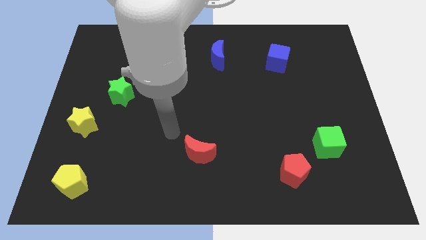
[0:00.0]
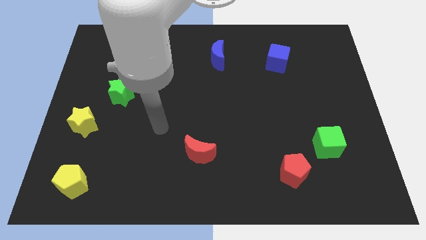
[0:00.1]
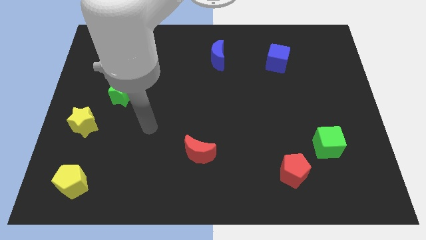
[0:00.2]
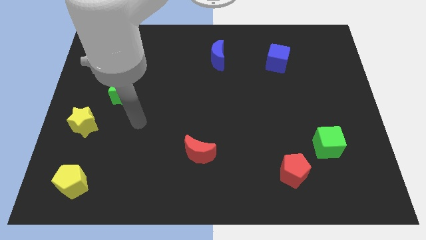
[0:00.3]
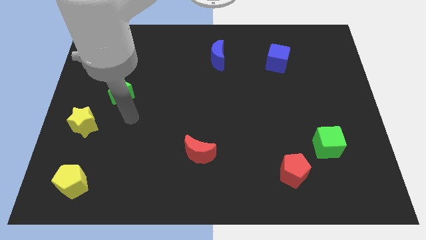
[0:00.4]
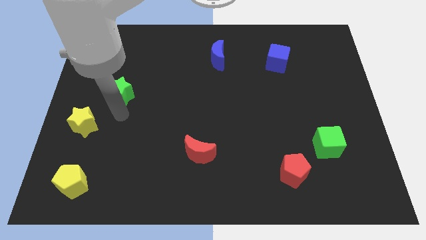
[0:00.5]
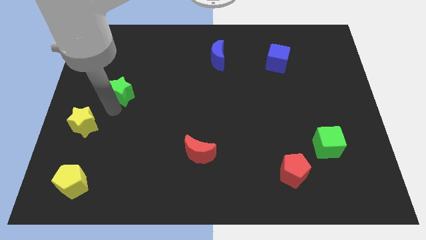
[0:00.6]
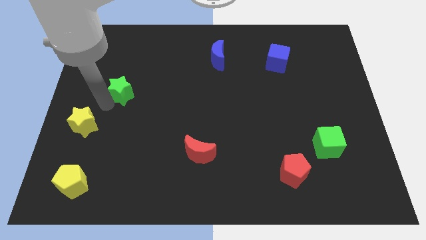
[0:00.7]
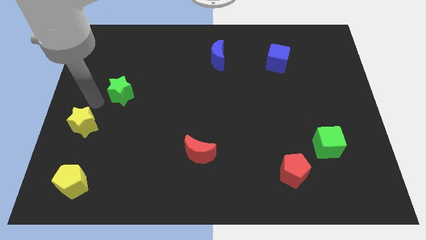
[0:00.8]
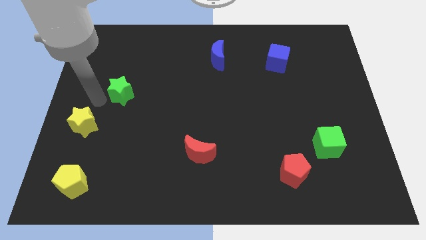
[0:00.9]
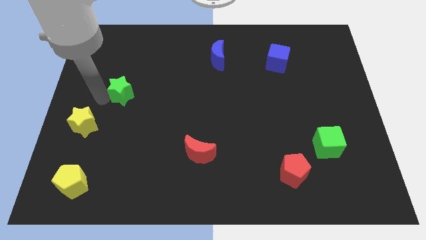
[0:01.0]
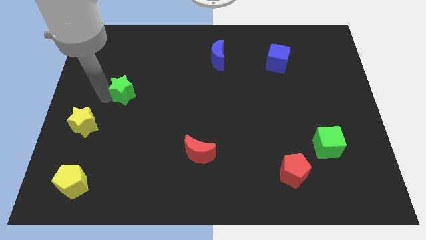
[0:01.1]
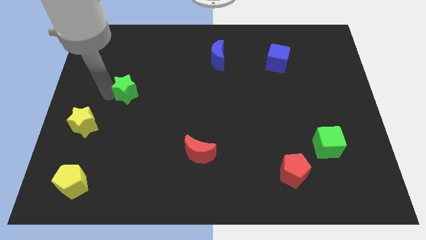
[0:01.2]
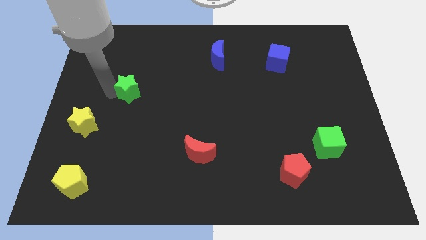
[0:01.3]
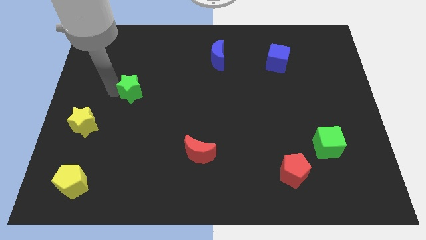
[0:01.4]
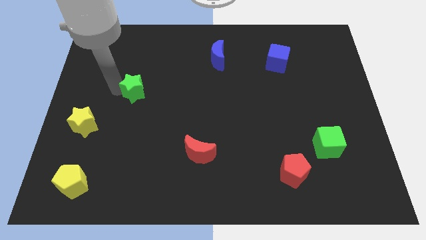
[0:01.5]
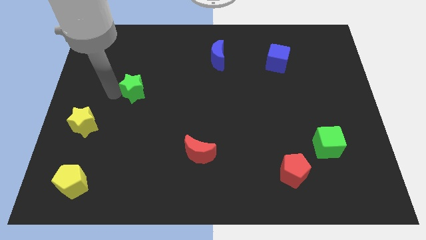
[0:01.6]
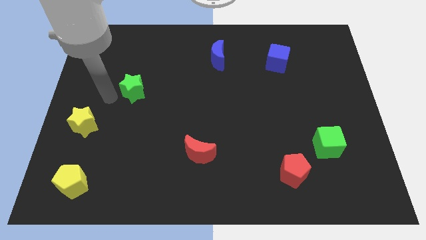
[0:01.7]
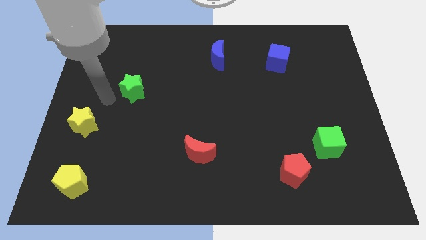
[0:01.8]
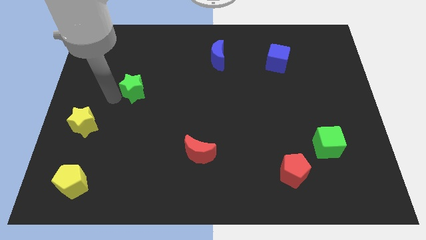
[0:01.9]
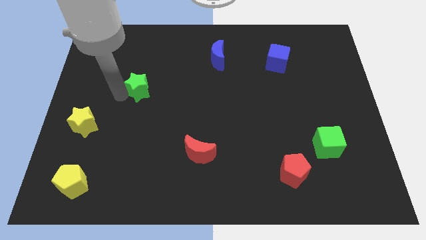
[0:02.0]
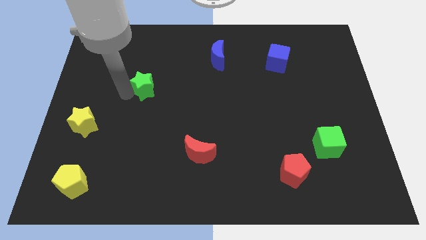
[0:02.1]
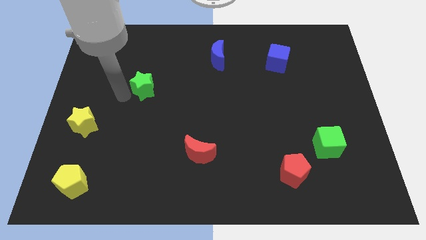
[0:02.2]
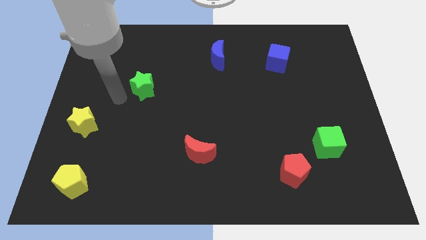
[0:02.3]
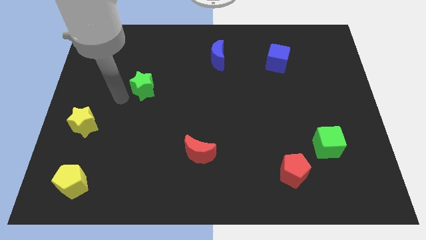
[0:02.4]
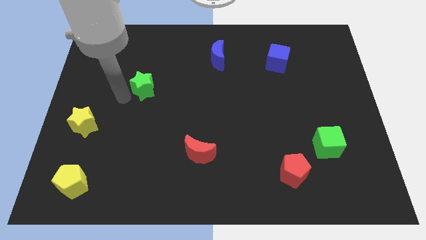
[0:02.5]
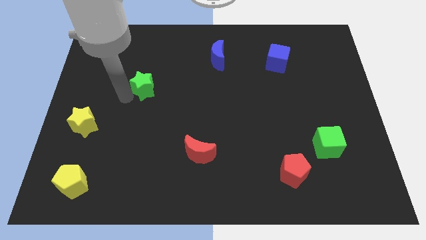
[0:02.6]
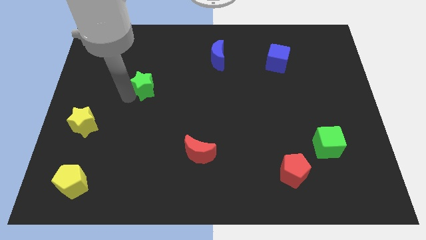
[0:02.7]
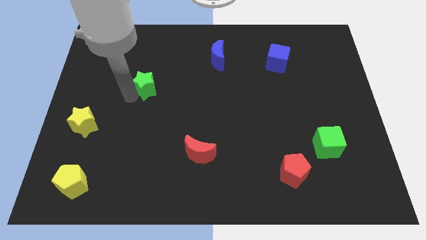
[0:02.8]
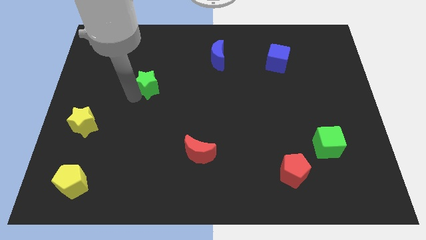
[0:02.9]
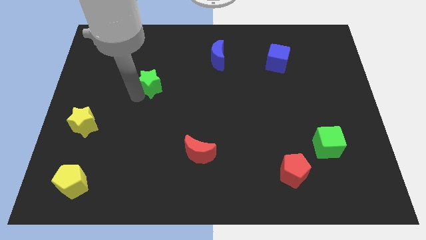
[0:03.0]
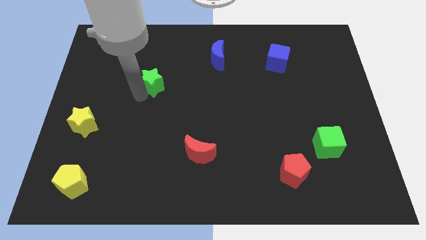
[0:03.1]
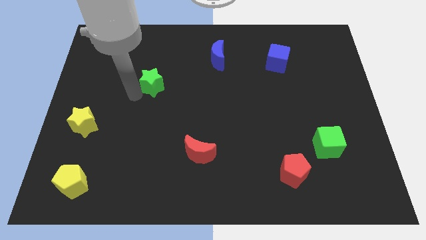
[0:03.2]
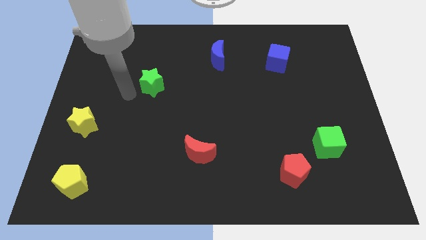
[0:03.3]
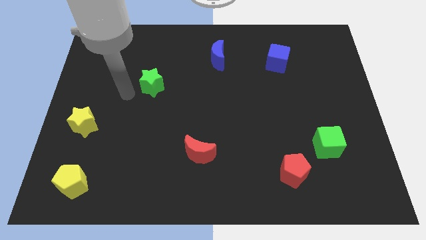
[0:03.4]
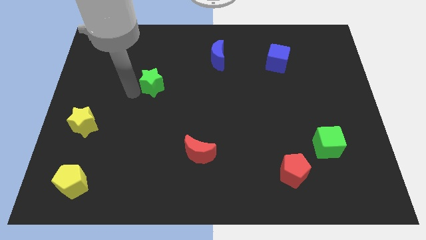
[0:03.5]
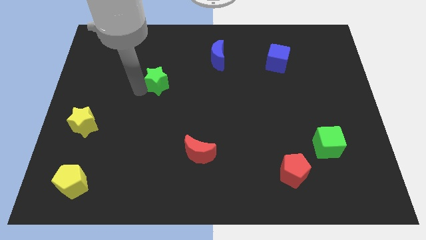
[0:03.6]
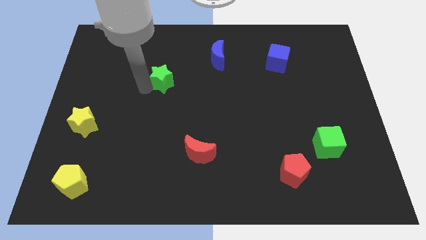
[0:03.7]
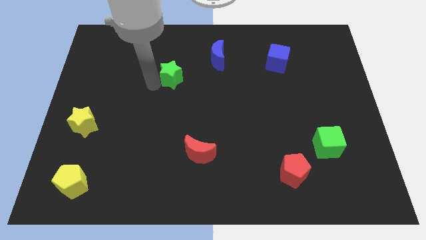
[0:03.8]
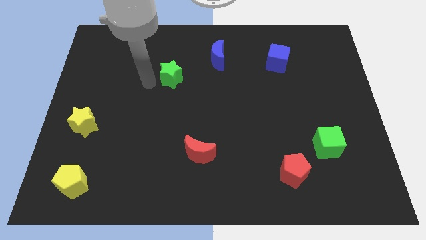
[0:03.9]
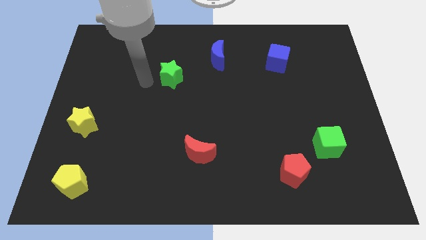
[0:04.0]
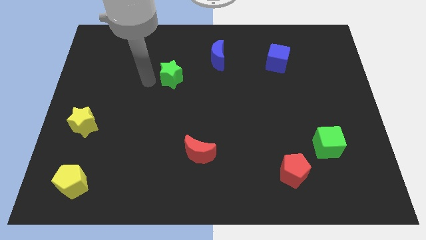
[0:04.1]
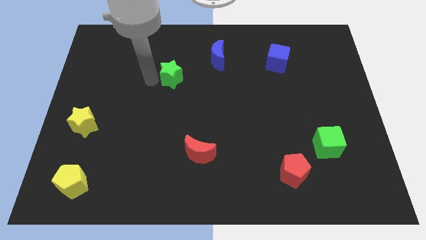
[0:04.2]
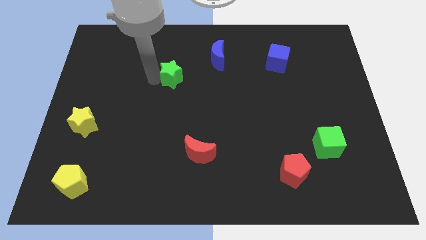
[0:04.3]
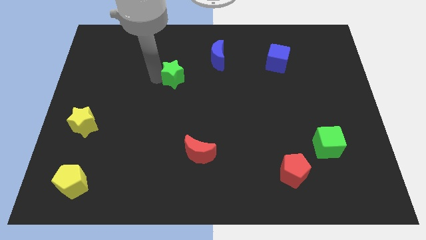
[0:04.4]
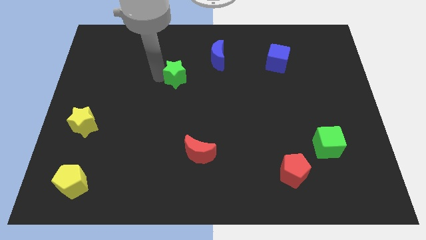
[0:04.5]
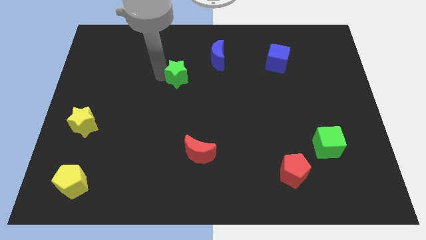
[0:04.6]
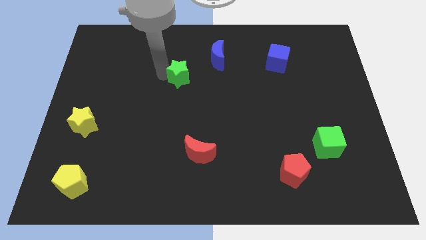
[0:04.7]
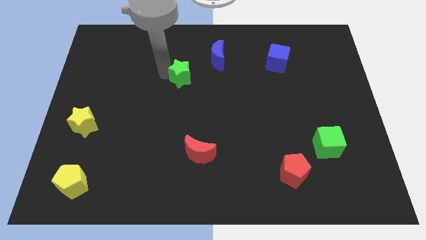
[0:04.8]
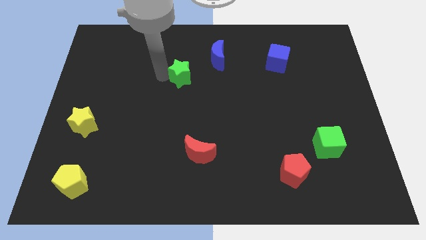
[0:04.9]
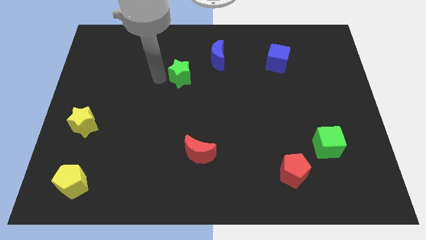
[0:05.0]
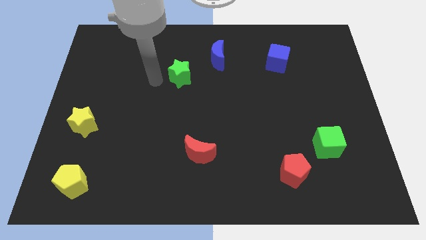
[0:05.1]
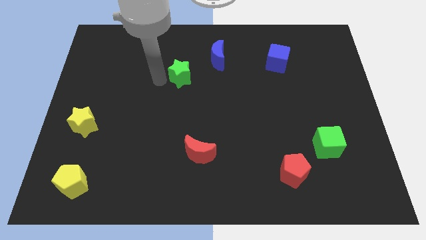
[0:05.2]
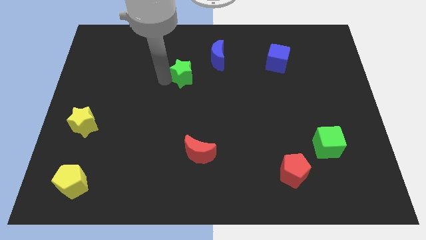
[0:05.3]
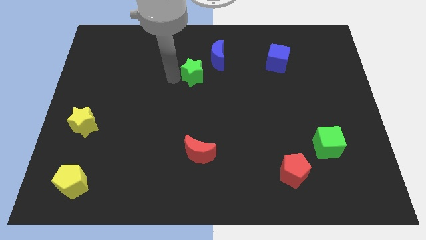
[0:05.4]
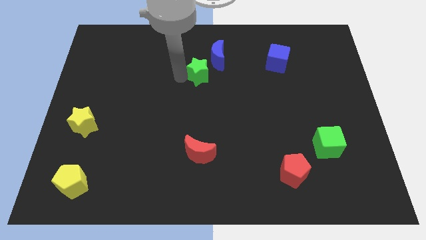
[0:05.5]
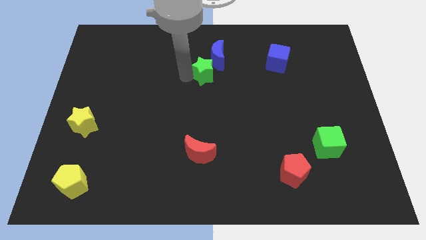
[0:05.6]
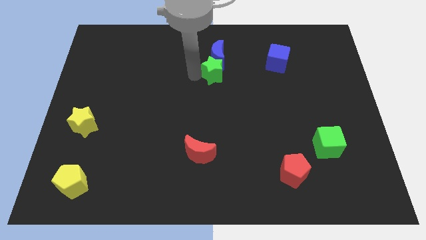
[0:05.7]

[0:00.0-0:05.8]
push the green star to the bottom right side of the blue moon

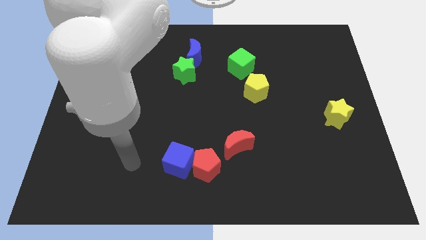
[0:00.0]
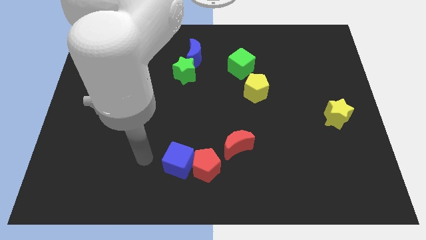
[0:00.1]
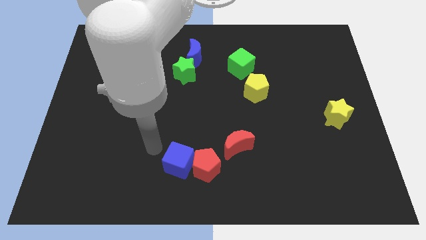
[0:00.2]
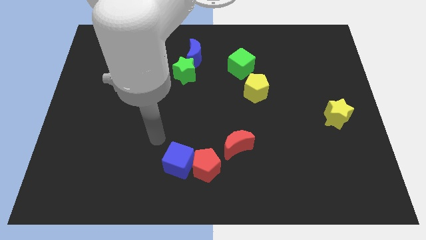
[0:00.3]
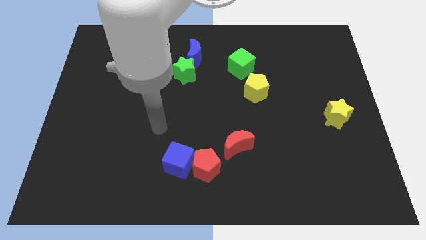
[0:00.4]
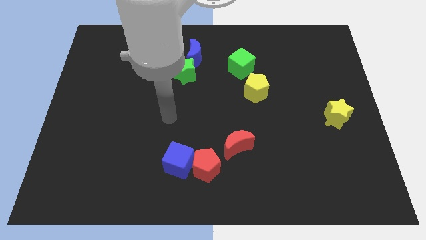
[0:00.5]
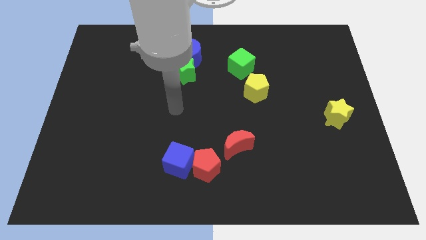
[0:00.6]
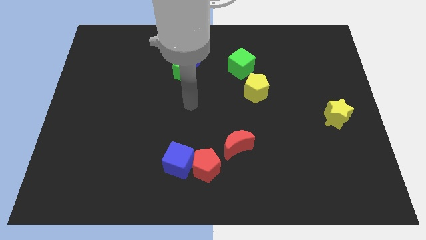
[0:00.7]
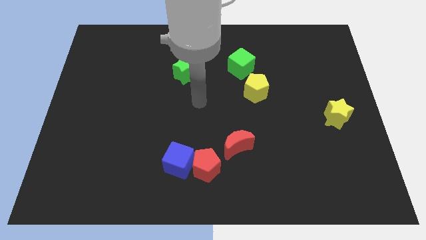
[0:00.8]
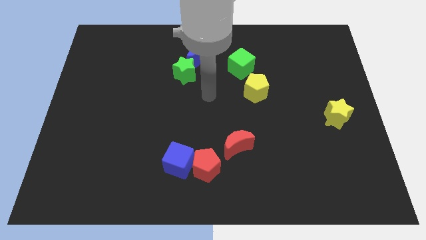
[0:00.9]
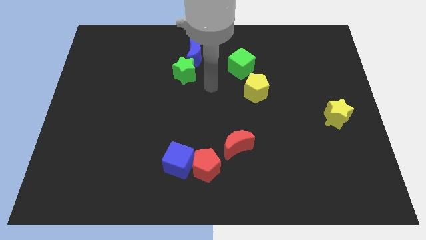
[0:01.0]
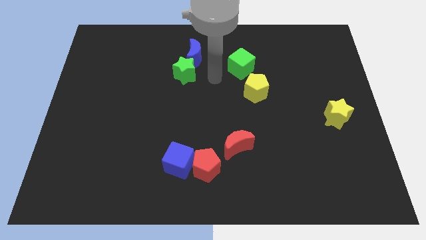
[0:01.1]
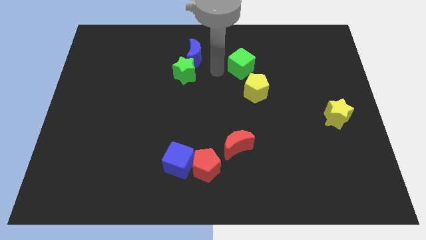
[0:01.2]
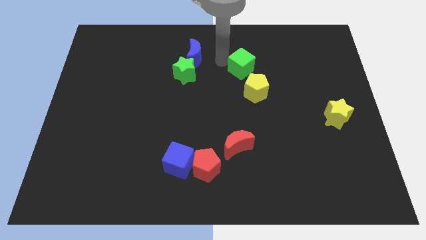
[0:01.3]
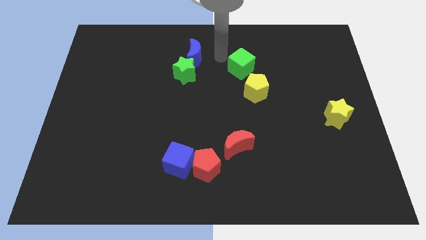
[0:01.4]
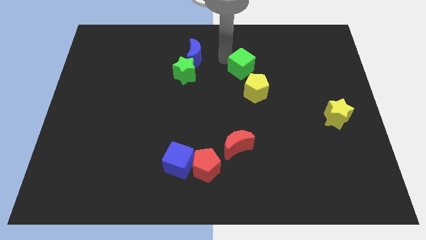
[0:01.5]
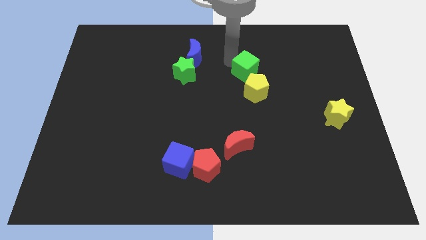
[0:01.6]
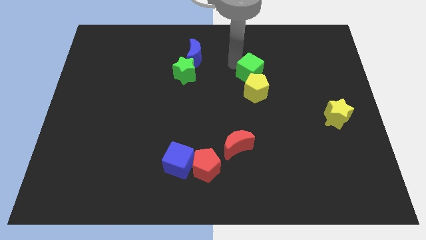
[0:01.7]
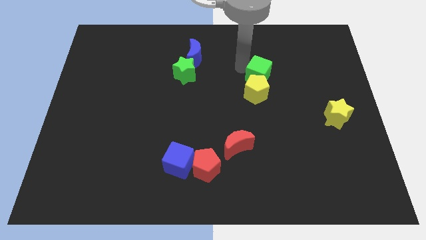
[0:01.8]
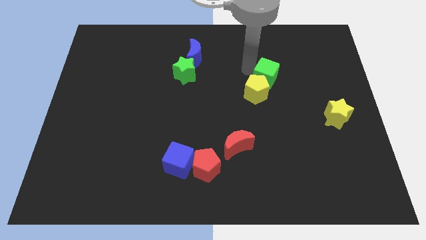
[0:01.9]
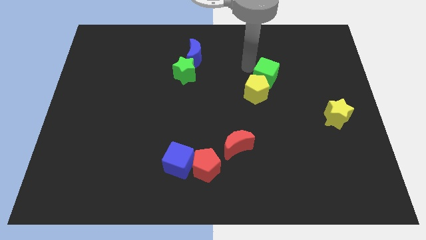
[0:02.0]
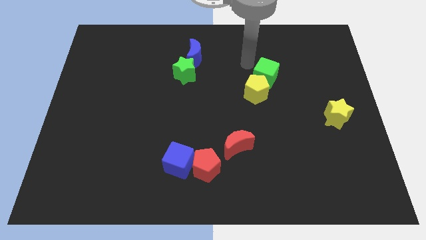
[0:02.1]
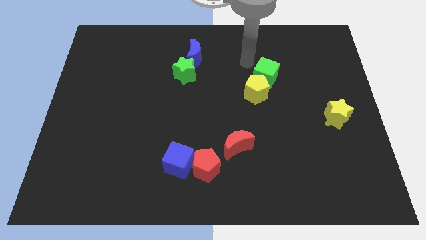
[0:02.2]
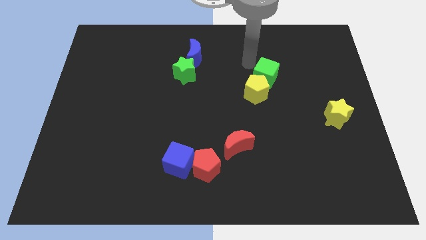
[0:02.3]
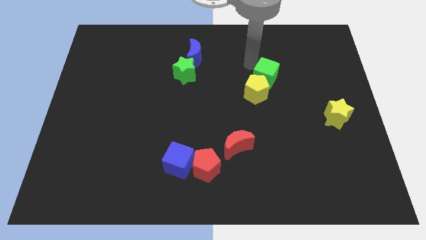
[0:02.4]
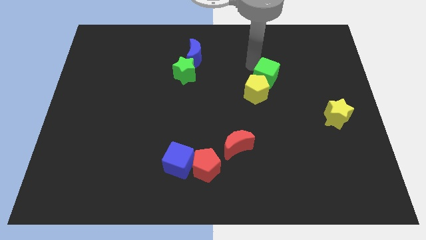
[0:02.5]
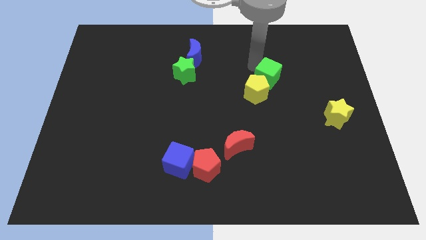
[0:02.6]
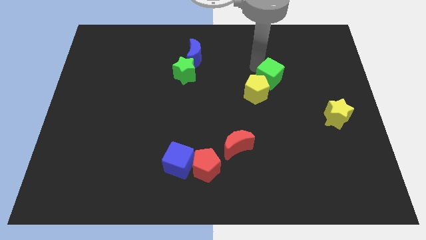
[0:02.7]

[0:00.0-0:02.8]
move the green cube to the right side of the yellow pentagon
